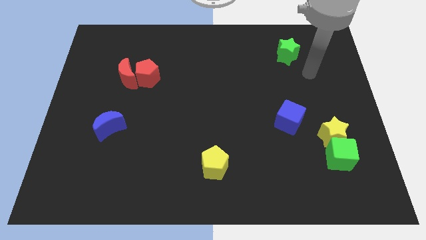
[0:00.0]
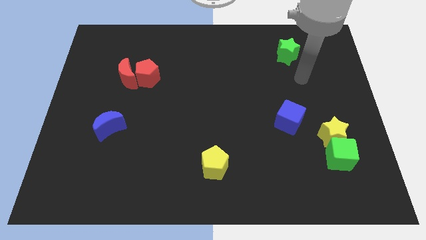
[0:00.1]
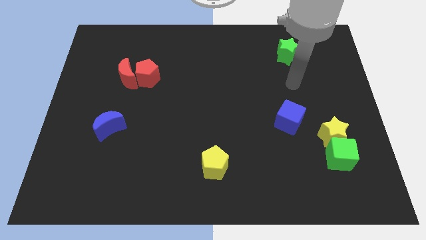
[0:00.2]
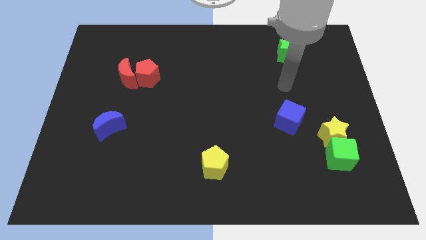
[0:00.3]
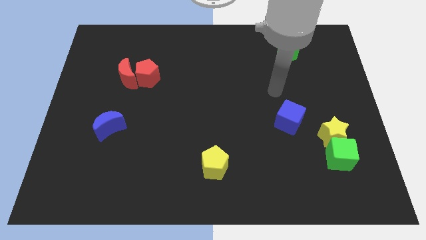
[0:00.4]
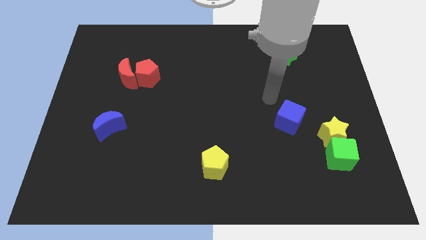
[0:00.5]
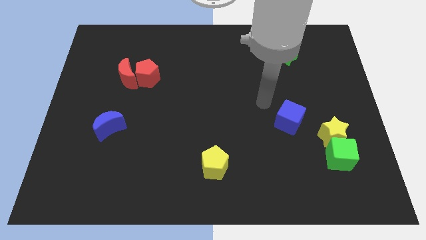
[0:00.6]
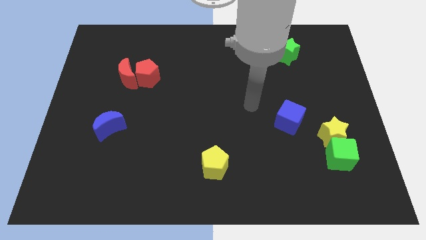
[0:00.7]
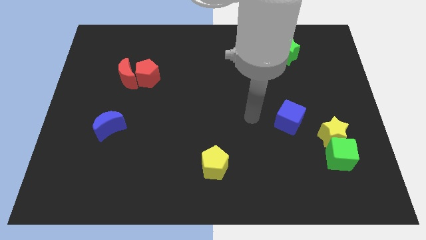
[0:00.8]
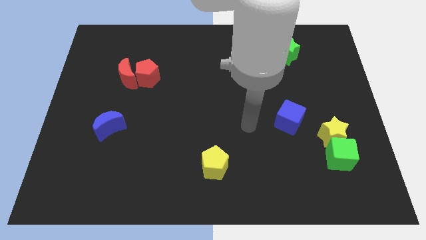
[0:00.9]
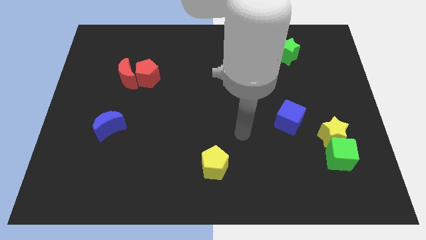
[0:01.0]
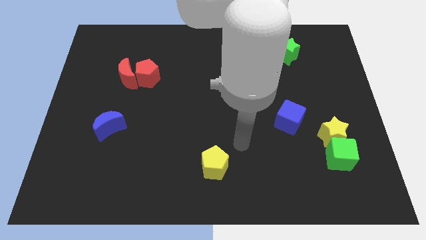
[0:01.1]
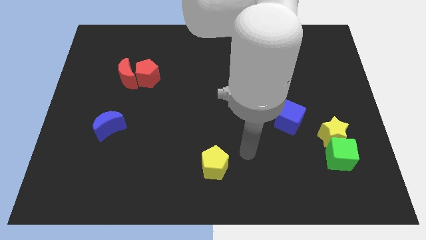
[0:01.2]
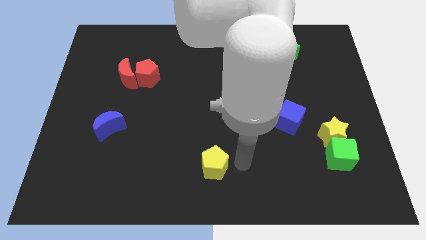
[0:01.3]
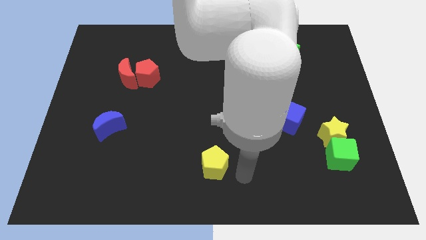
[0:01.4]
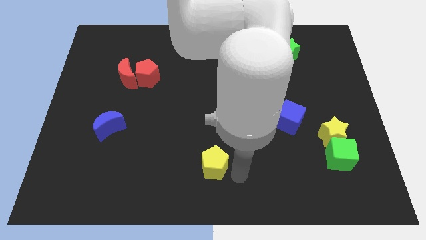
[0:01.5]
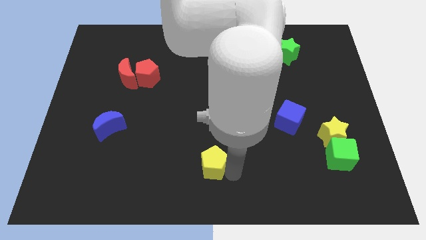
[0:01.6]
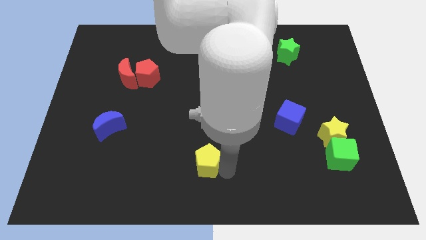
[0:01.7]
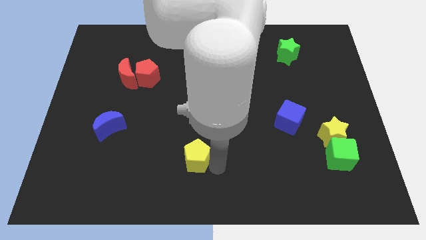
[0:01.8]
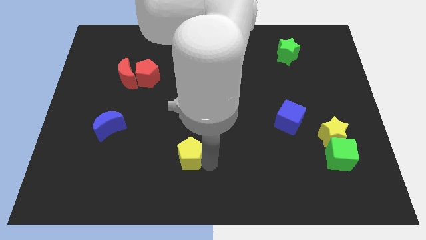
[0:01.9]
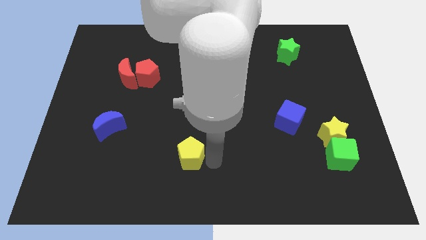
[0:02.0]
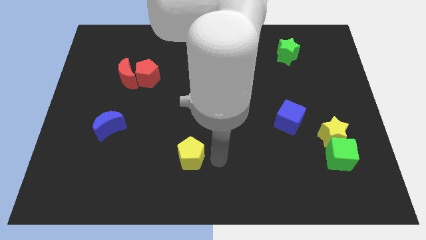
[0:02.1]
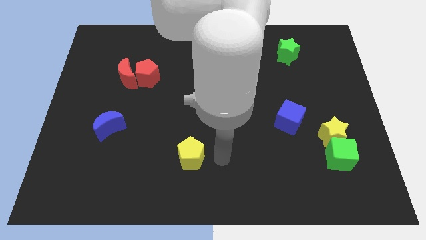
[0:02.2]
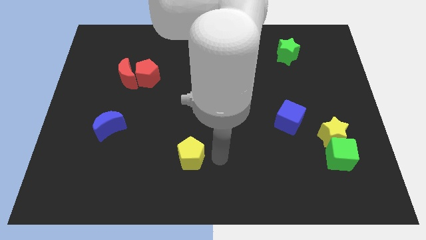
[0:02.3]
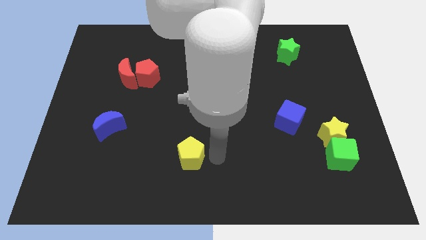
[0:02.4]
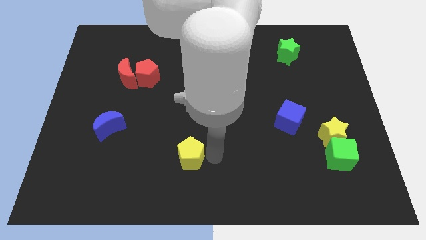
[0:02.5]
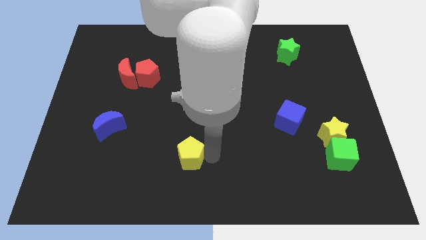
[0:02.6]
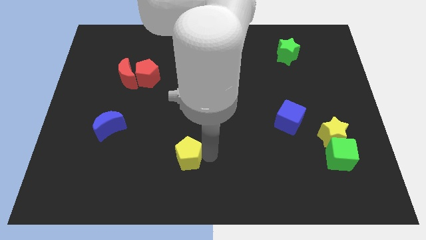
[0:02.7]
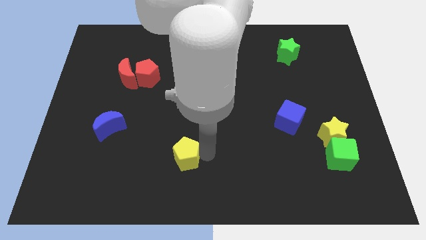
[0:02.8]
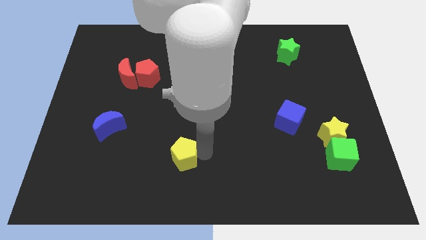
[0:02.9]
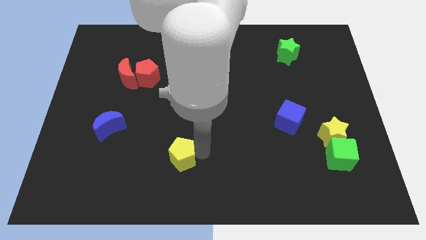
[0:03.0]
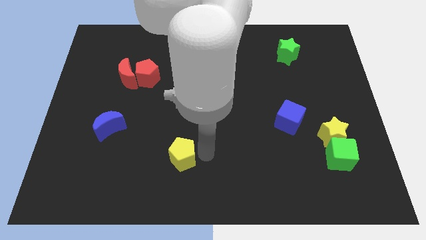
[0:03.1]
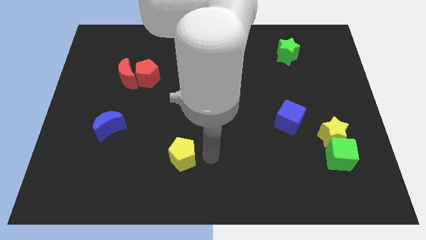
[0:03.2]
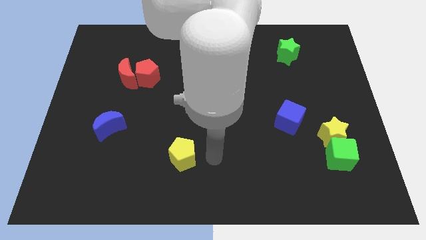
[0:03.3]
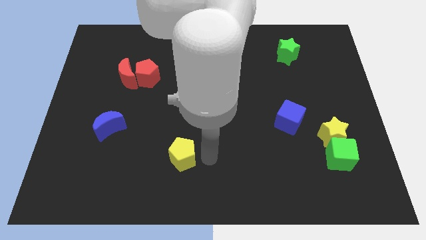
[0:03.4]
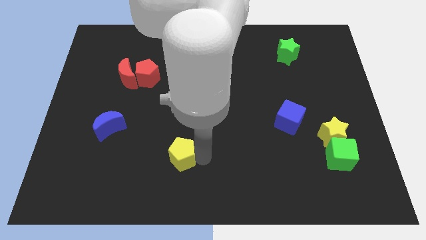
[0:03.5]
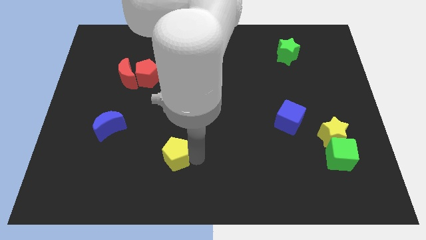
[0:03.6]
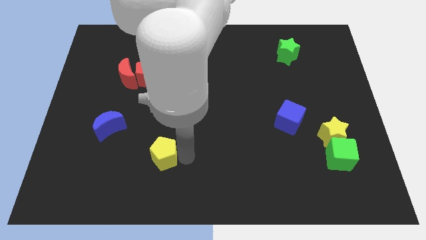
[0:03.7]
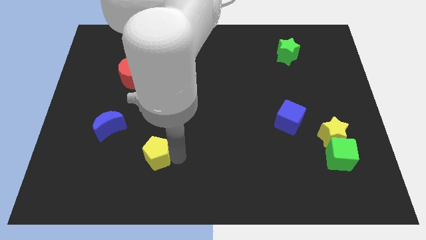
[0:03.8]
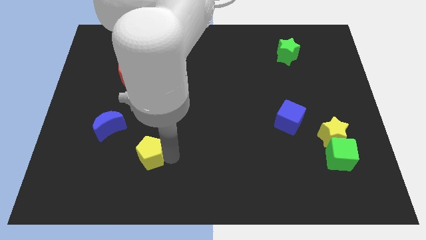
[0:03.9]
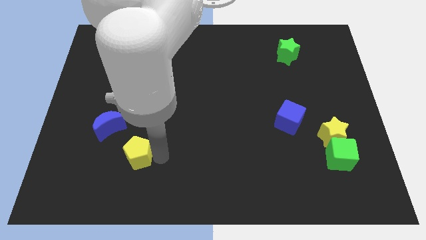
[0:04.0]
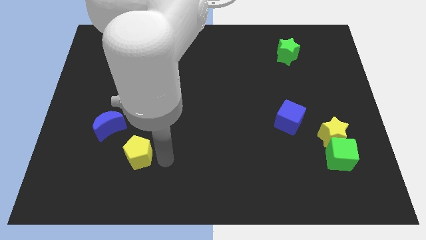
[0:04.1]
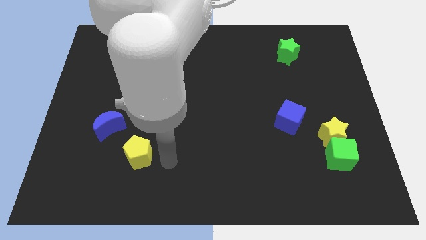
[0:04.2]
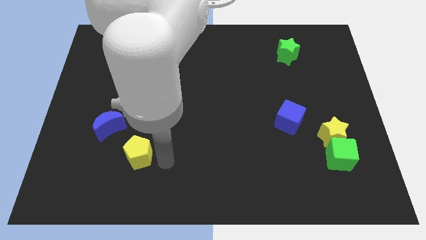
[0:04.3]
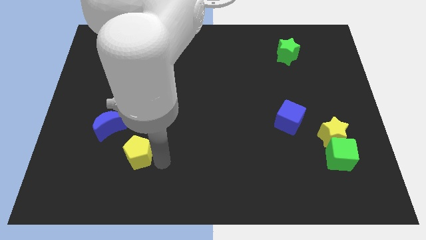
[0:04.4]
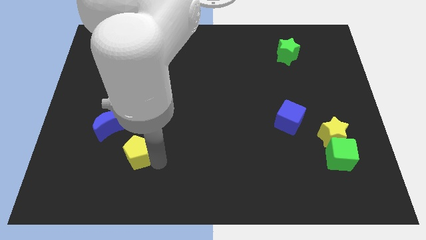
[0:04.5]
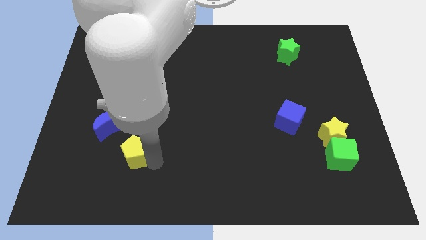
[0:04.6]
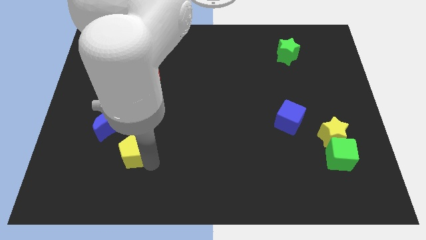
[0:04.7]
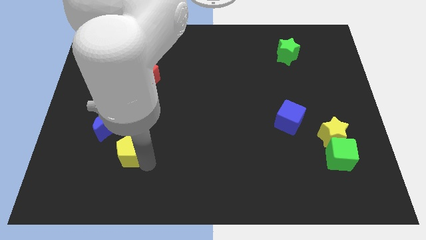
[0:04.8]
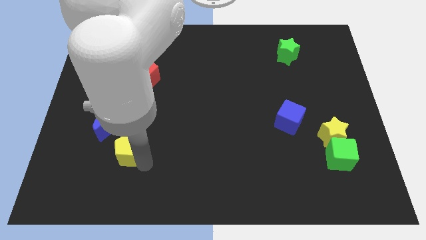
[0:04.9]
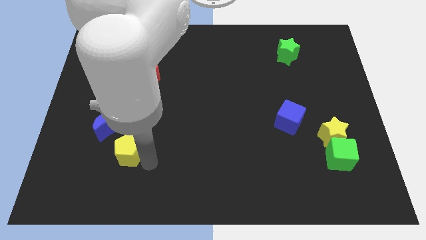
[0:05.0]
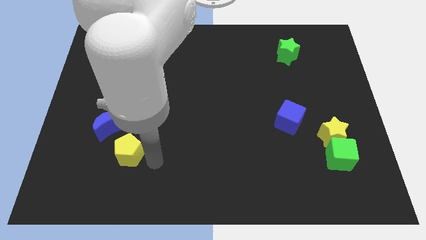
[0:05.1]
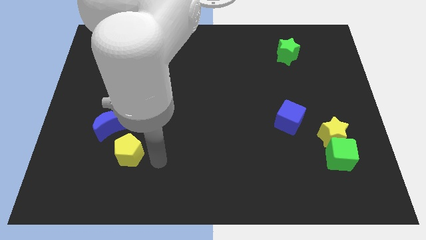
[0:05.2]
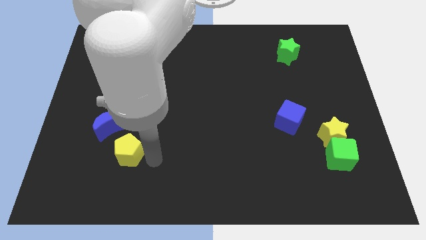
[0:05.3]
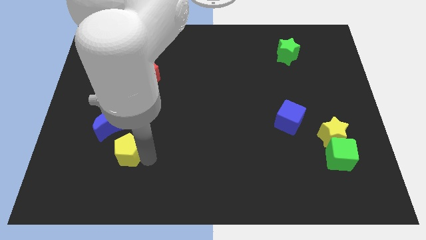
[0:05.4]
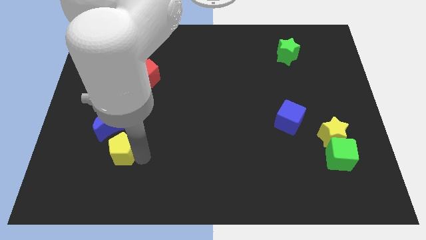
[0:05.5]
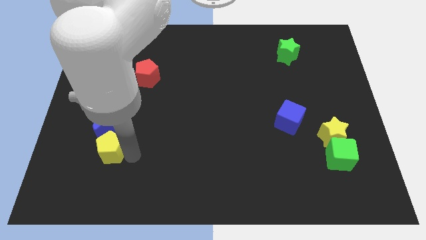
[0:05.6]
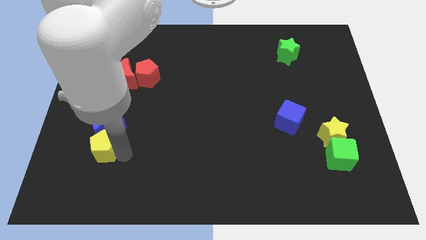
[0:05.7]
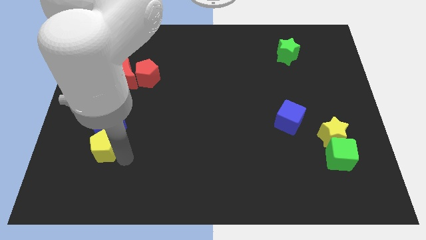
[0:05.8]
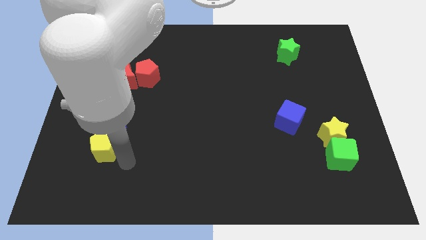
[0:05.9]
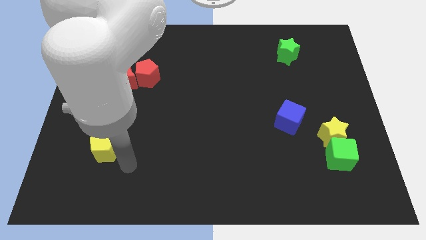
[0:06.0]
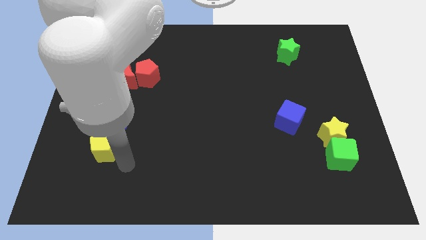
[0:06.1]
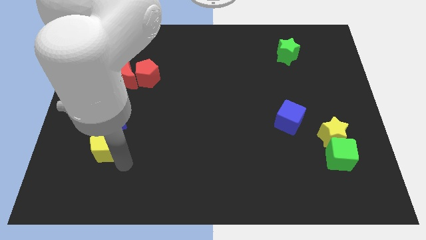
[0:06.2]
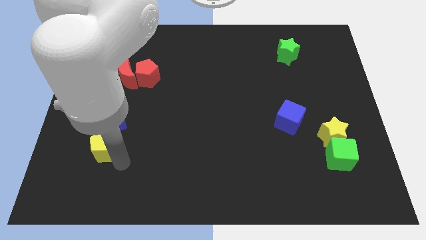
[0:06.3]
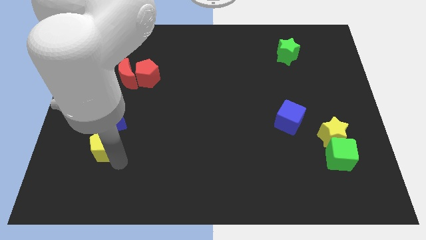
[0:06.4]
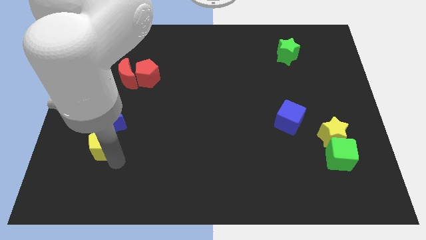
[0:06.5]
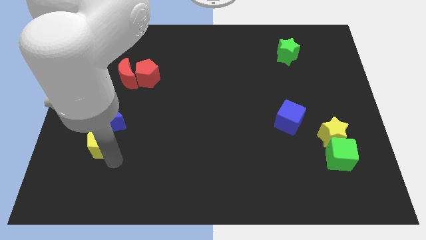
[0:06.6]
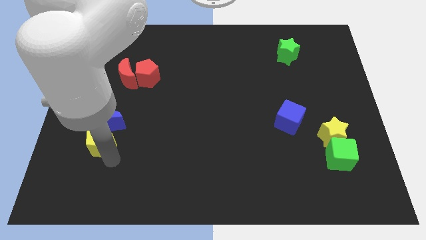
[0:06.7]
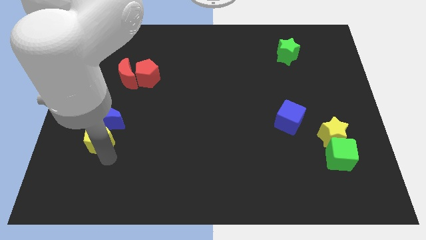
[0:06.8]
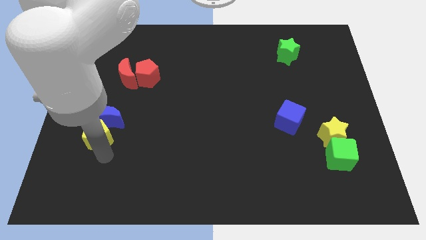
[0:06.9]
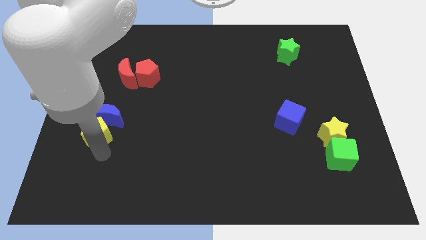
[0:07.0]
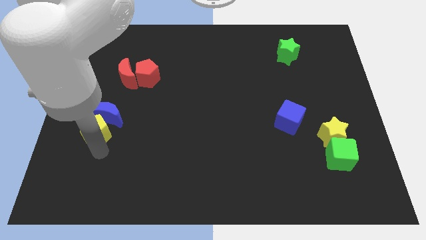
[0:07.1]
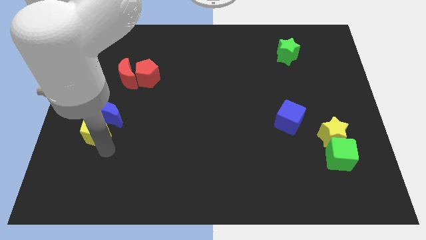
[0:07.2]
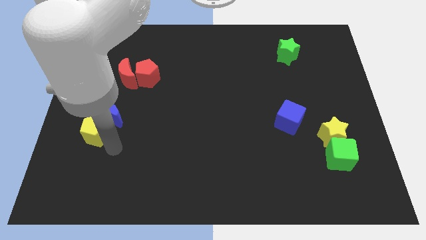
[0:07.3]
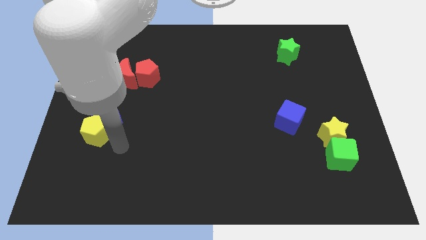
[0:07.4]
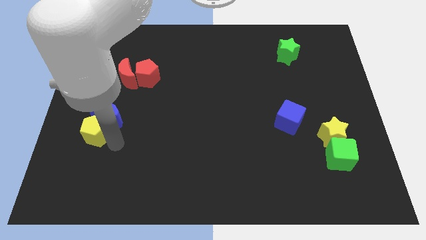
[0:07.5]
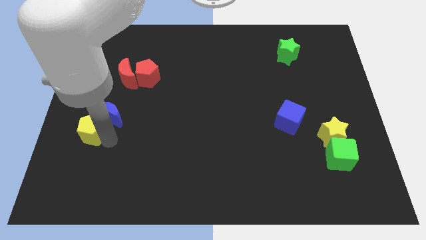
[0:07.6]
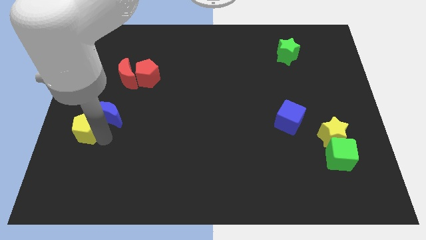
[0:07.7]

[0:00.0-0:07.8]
put the yellow pentagon to the center left
